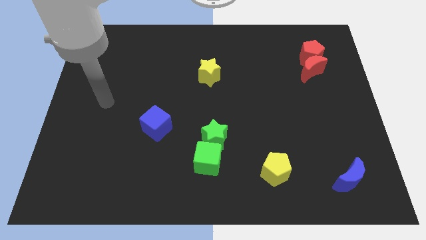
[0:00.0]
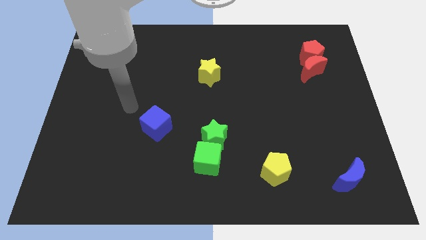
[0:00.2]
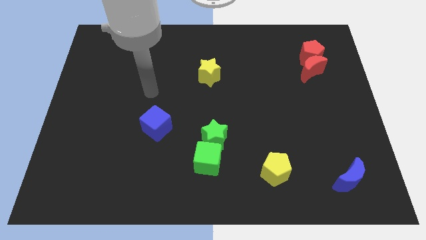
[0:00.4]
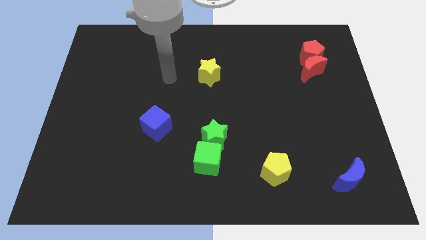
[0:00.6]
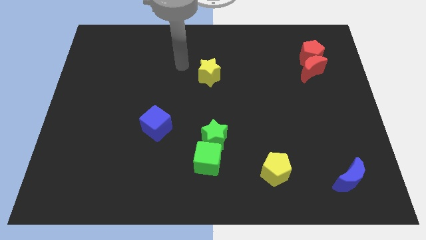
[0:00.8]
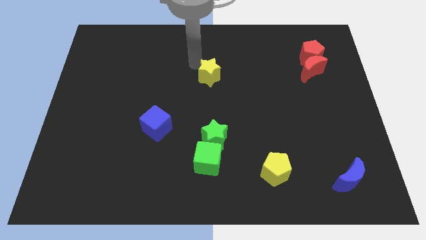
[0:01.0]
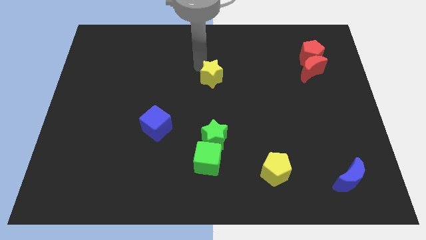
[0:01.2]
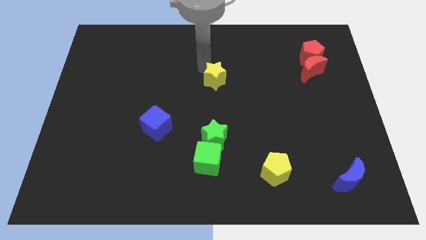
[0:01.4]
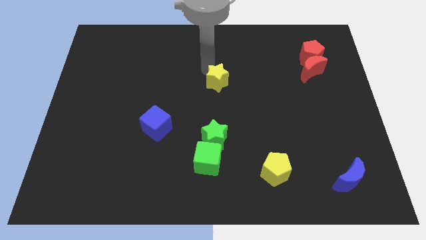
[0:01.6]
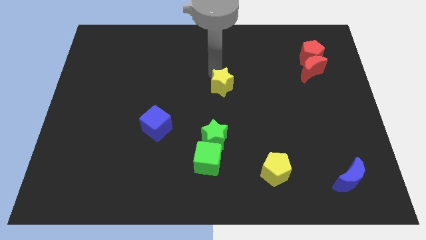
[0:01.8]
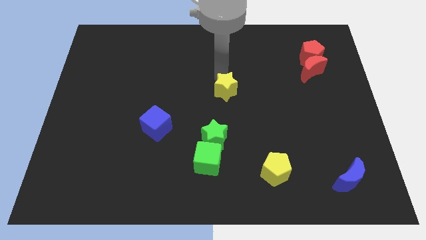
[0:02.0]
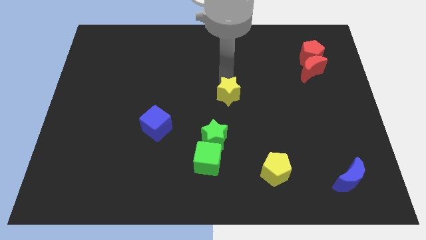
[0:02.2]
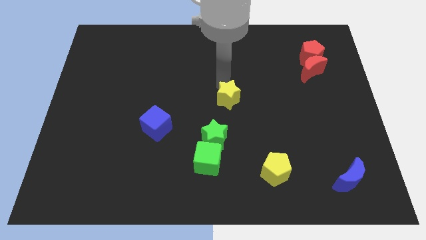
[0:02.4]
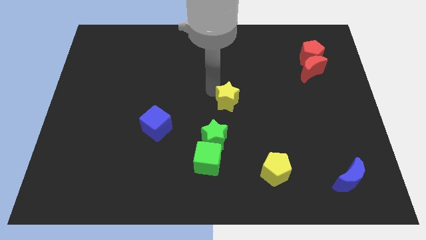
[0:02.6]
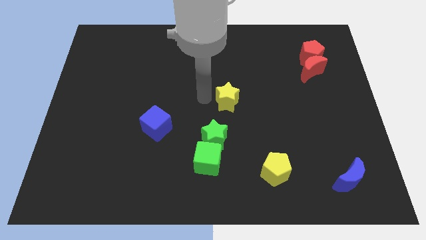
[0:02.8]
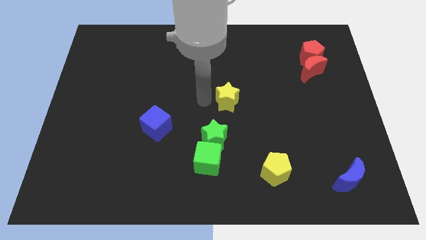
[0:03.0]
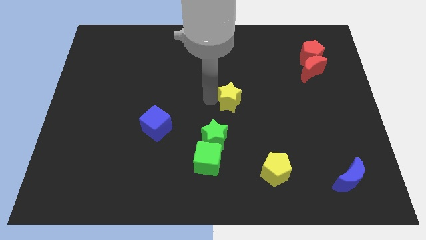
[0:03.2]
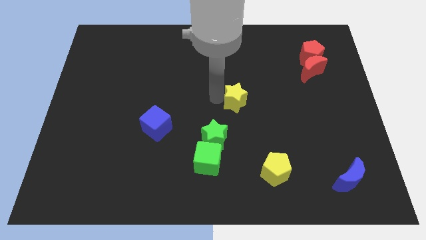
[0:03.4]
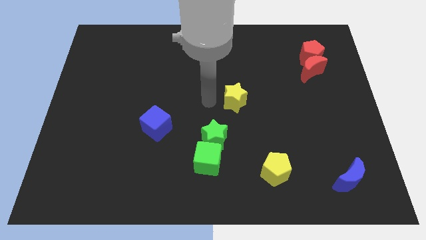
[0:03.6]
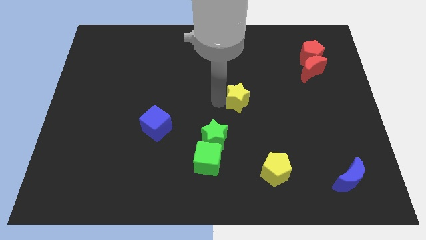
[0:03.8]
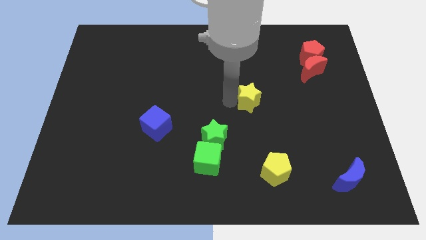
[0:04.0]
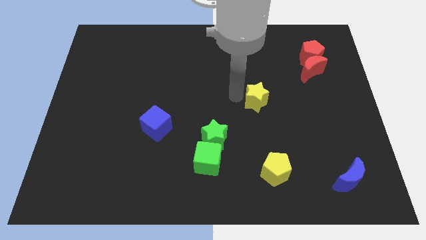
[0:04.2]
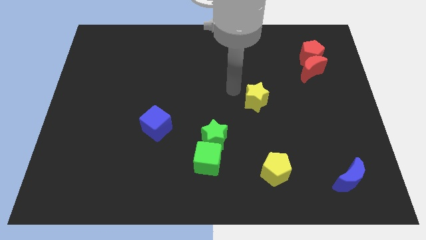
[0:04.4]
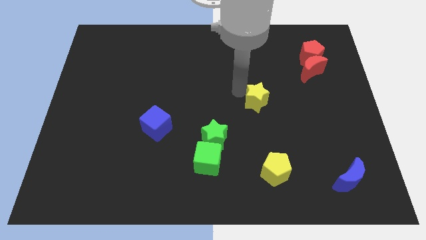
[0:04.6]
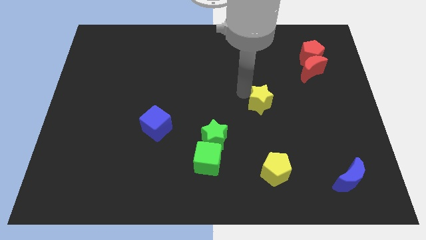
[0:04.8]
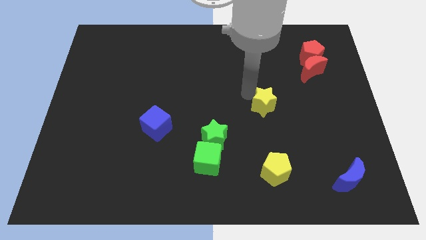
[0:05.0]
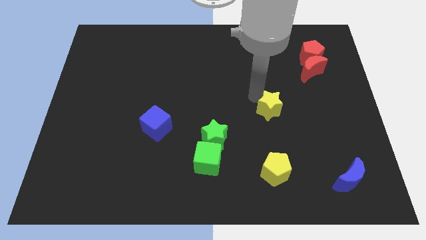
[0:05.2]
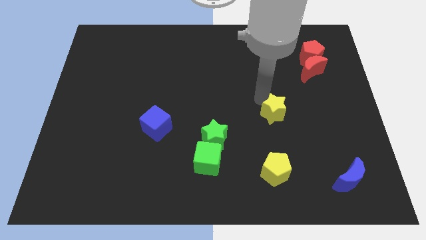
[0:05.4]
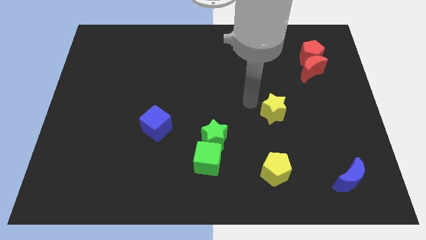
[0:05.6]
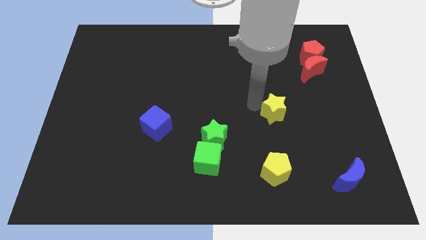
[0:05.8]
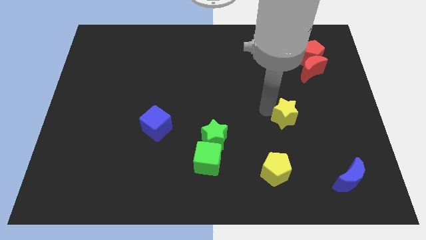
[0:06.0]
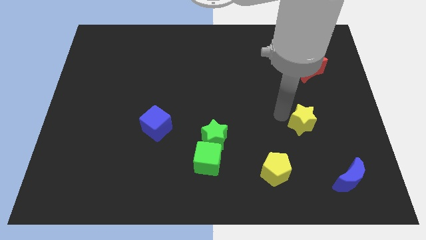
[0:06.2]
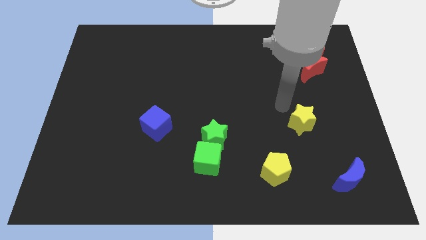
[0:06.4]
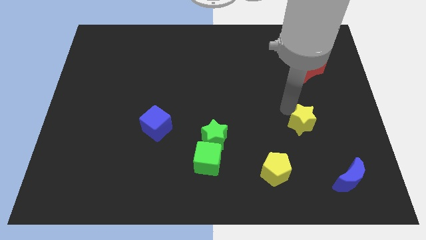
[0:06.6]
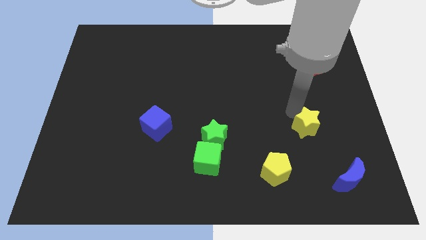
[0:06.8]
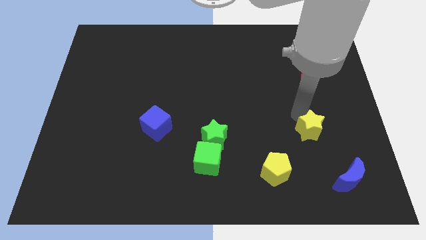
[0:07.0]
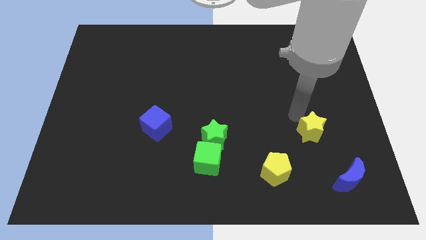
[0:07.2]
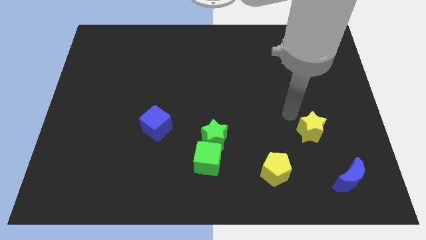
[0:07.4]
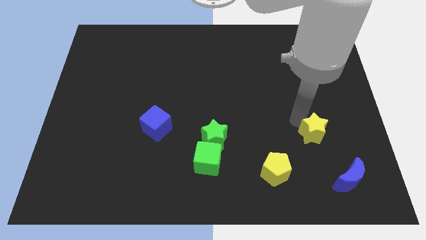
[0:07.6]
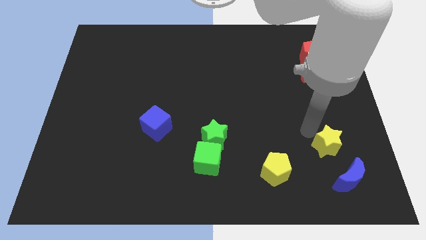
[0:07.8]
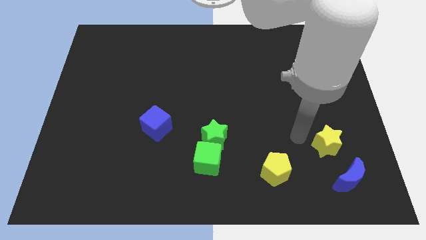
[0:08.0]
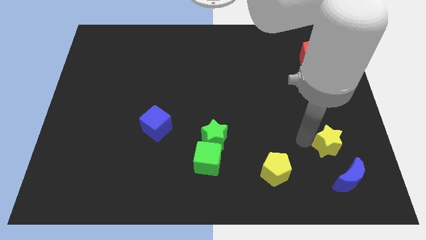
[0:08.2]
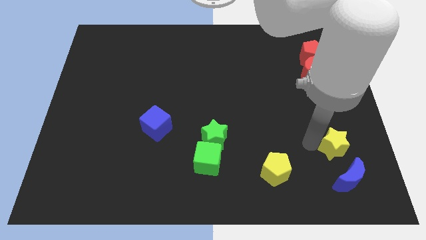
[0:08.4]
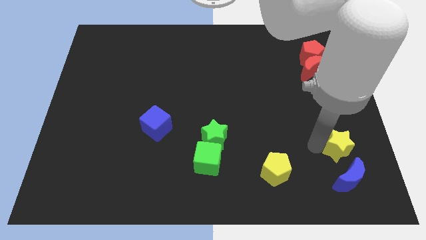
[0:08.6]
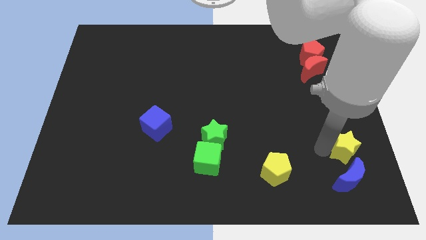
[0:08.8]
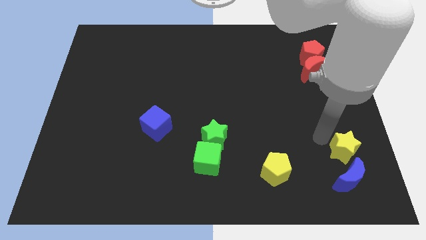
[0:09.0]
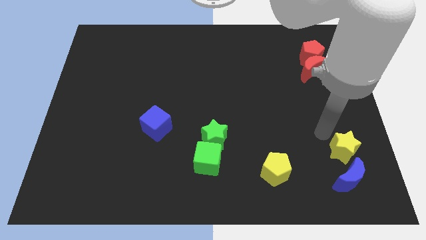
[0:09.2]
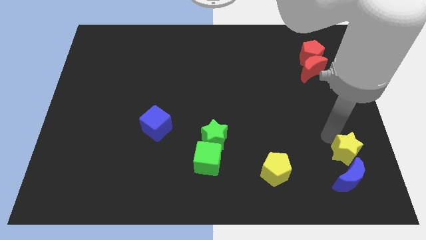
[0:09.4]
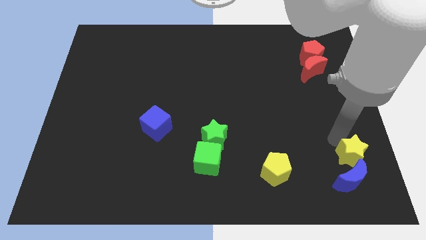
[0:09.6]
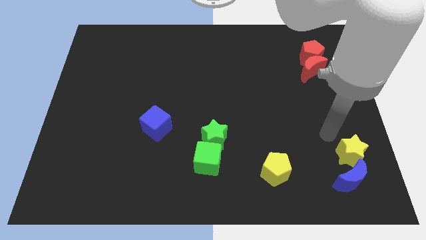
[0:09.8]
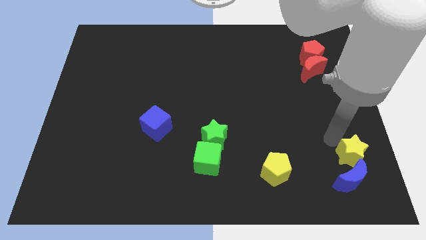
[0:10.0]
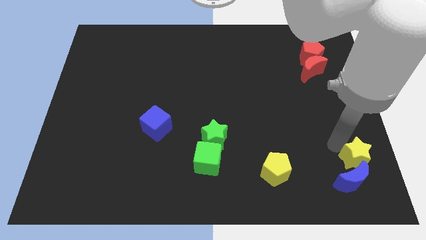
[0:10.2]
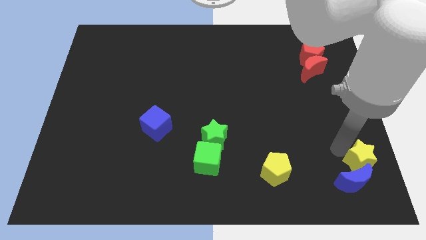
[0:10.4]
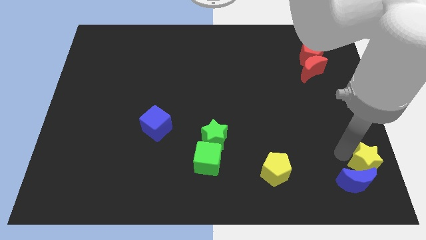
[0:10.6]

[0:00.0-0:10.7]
move the yellow star to the lower right corner
